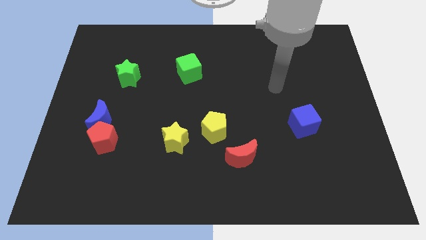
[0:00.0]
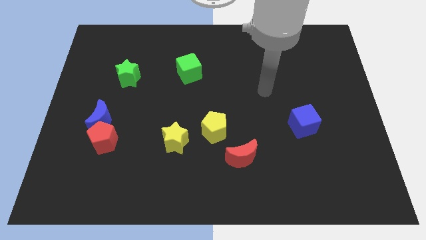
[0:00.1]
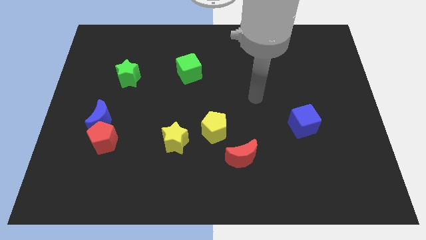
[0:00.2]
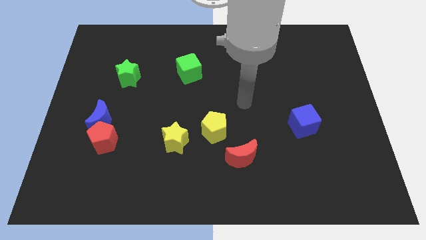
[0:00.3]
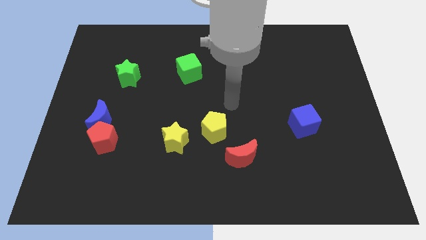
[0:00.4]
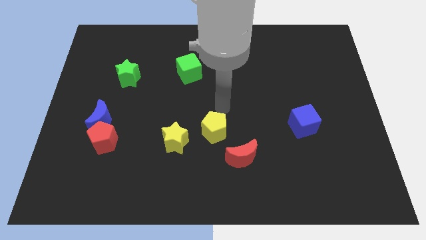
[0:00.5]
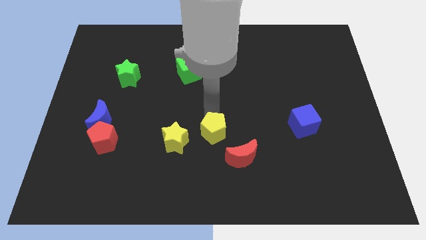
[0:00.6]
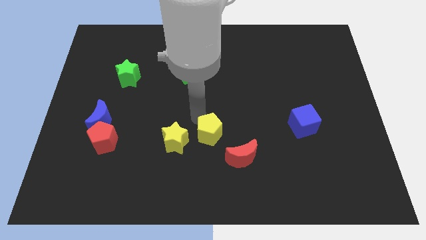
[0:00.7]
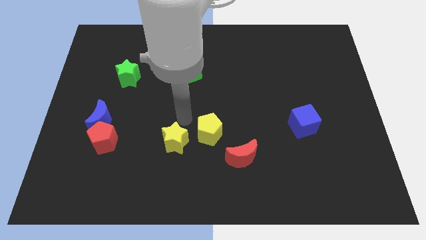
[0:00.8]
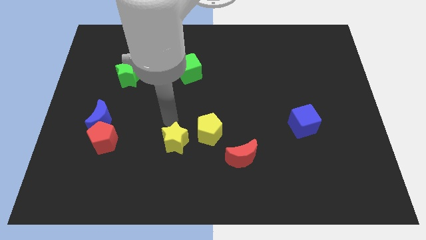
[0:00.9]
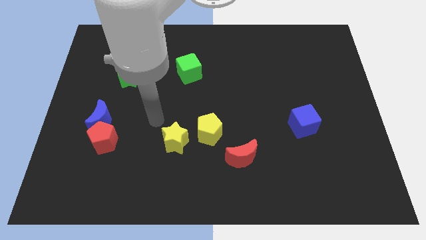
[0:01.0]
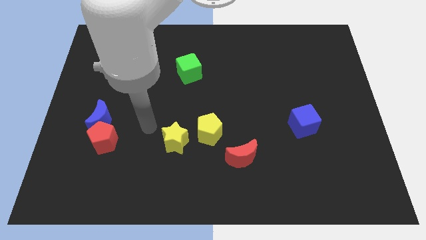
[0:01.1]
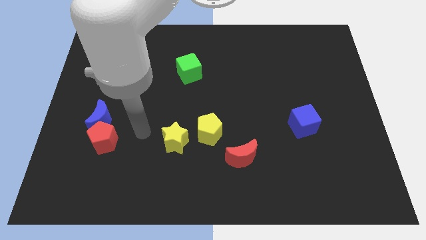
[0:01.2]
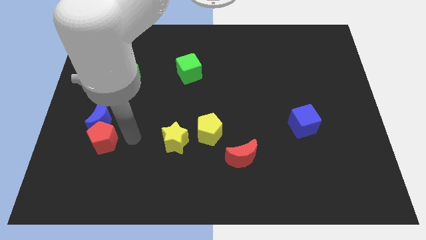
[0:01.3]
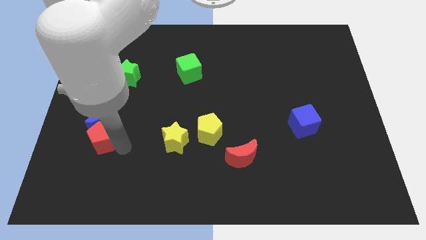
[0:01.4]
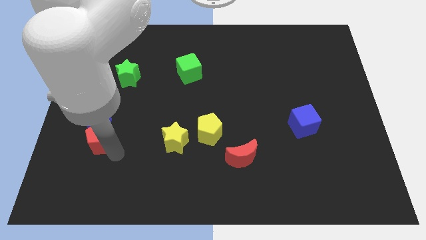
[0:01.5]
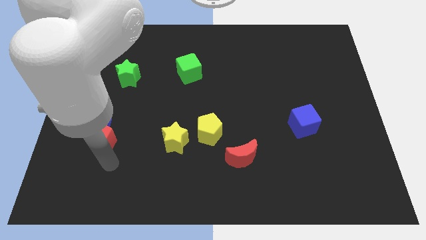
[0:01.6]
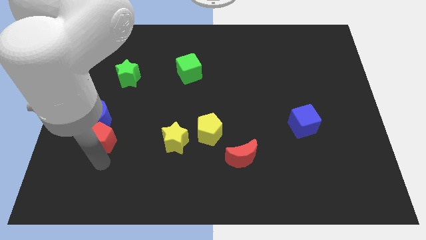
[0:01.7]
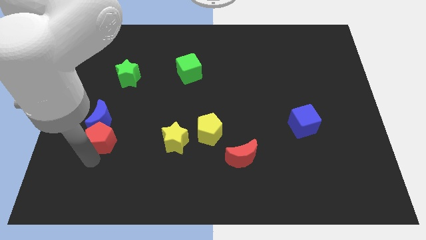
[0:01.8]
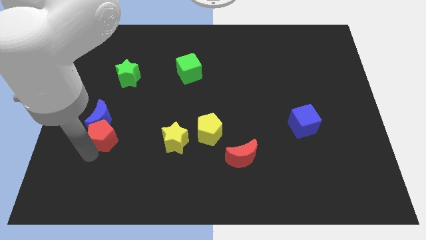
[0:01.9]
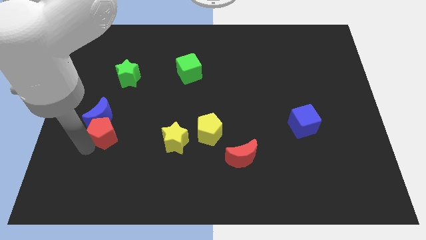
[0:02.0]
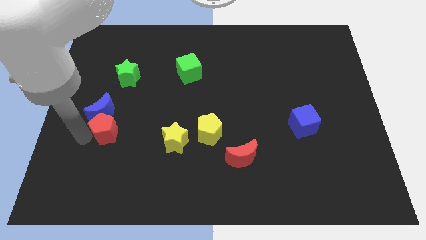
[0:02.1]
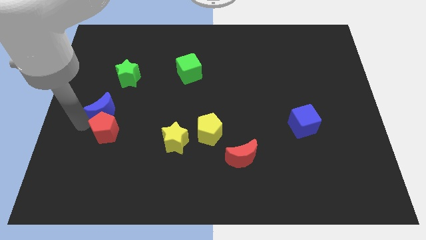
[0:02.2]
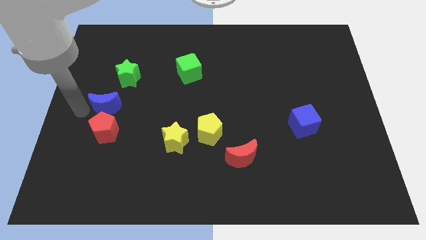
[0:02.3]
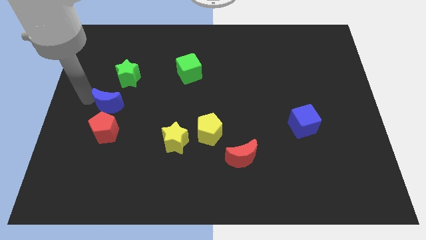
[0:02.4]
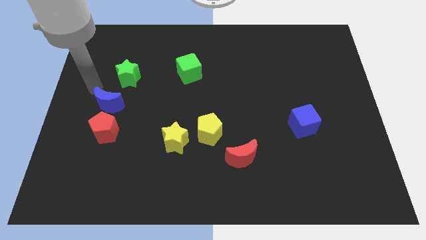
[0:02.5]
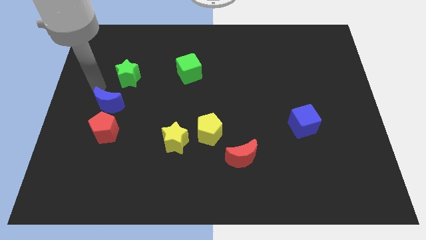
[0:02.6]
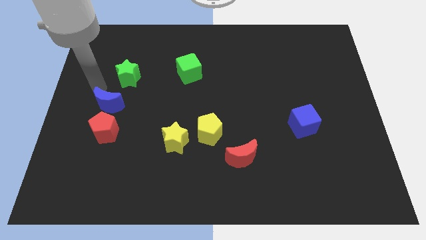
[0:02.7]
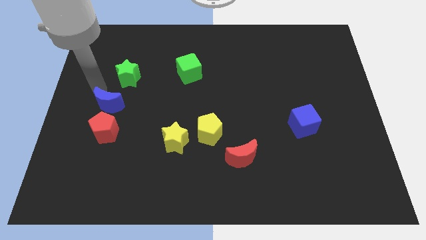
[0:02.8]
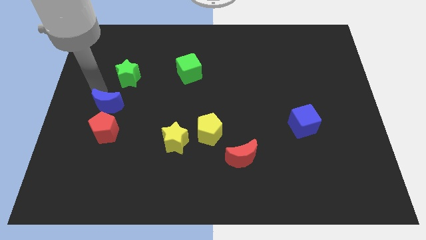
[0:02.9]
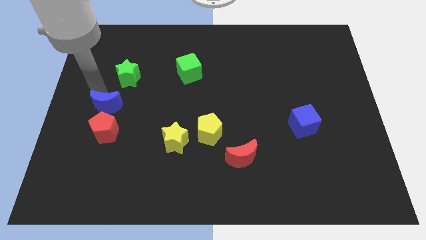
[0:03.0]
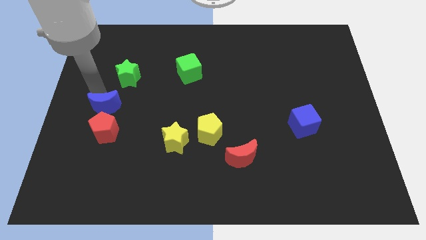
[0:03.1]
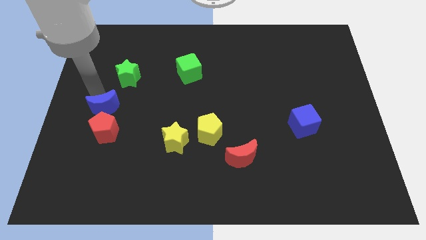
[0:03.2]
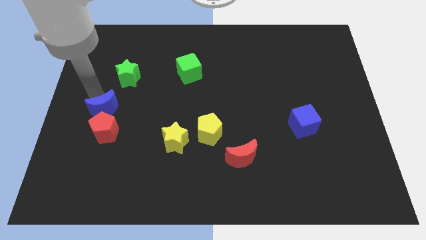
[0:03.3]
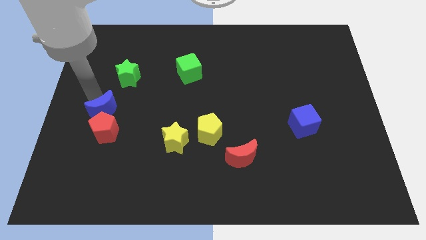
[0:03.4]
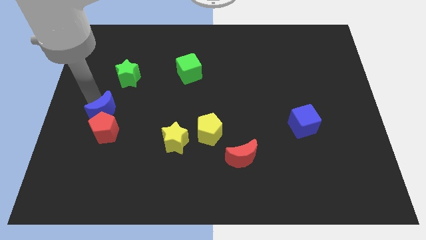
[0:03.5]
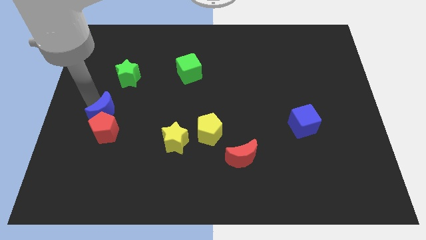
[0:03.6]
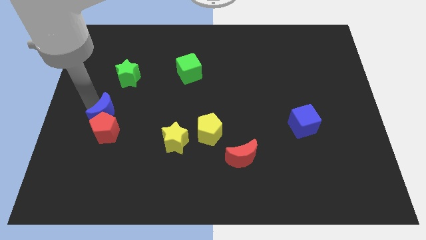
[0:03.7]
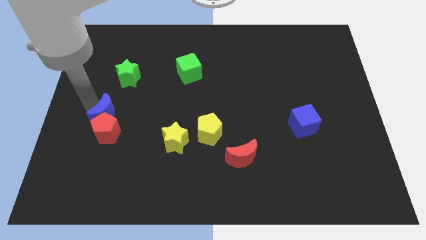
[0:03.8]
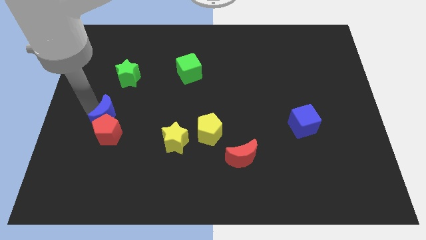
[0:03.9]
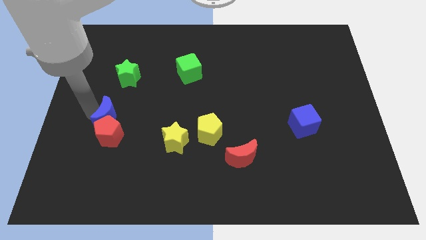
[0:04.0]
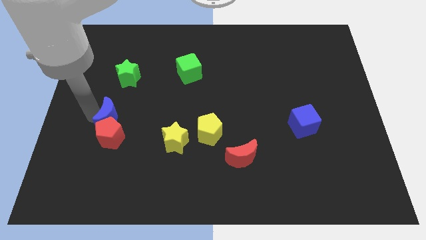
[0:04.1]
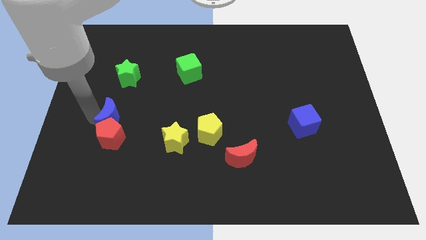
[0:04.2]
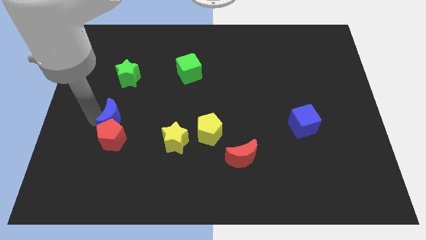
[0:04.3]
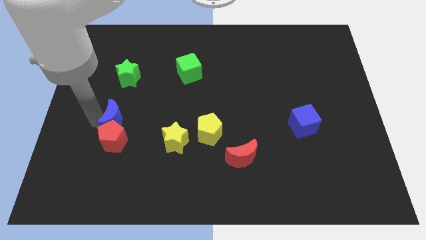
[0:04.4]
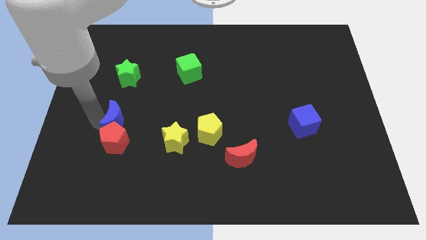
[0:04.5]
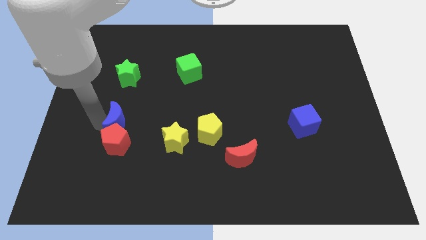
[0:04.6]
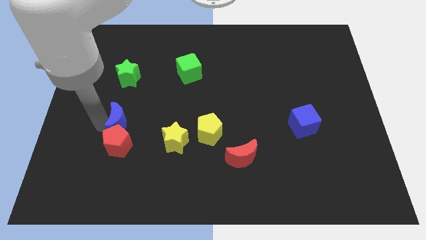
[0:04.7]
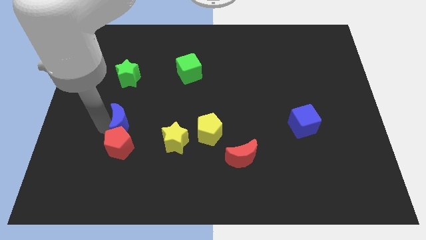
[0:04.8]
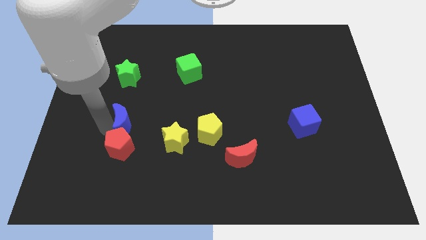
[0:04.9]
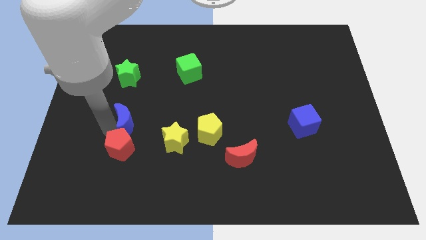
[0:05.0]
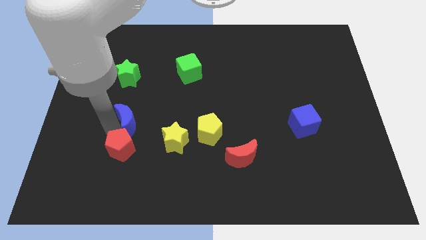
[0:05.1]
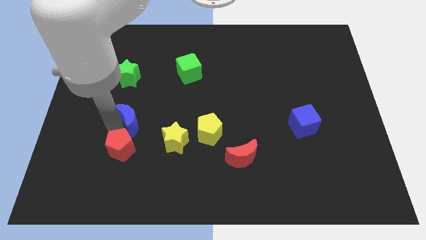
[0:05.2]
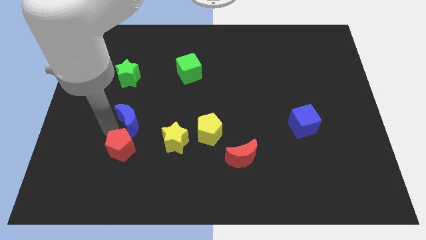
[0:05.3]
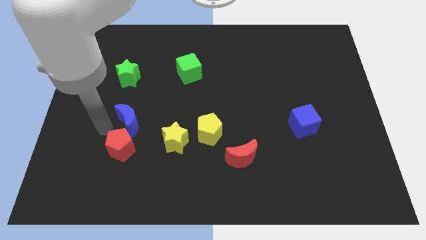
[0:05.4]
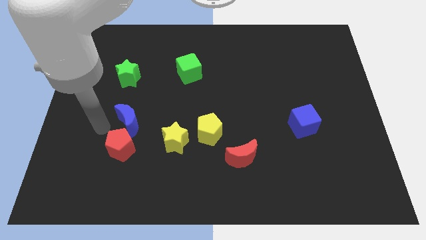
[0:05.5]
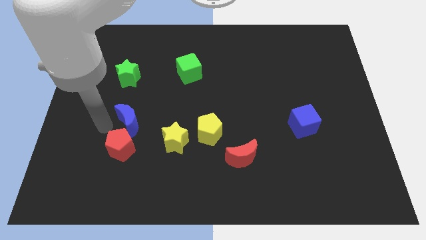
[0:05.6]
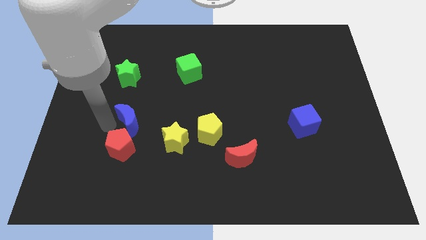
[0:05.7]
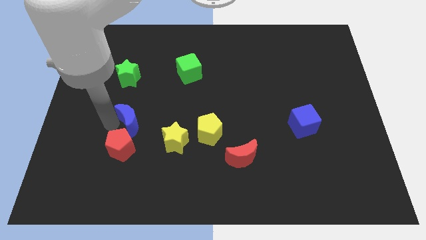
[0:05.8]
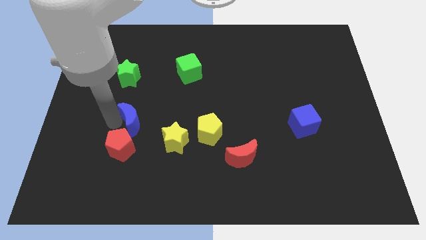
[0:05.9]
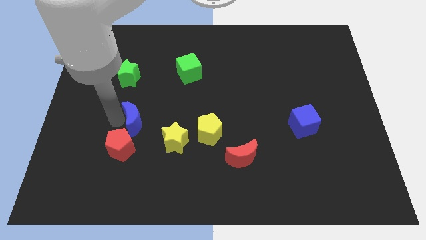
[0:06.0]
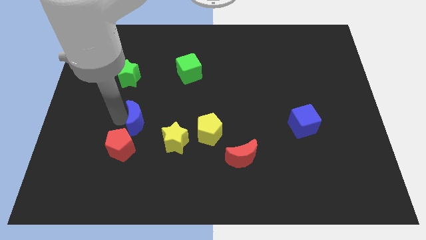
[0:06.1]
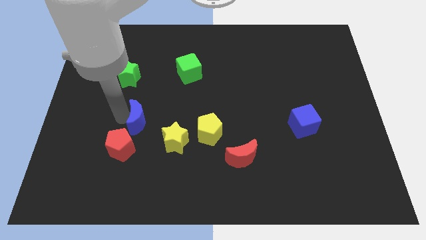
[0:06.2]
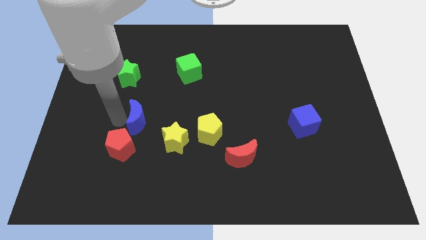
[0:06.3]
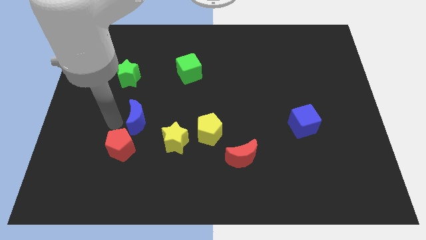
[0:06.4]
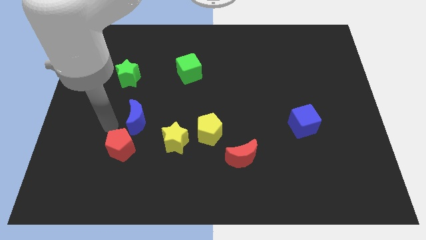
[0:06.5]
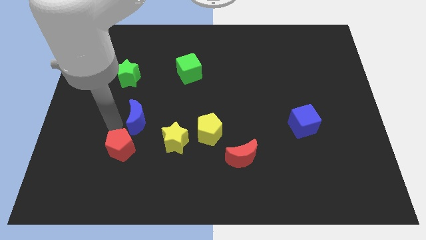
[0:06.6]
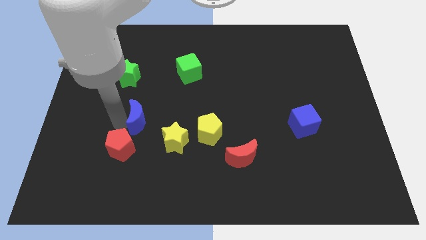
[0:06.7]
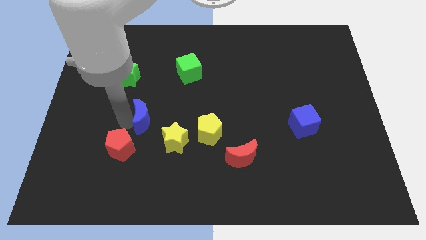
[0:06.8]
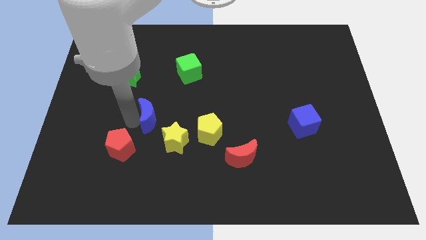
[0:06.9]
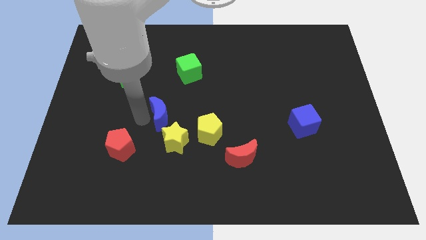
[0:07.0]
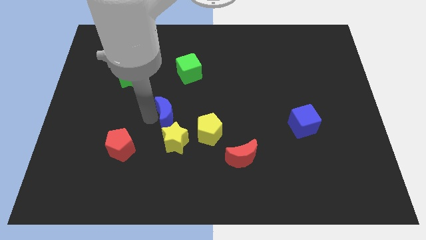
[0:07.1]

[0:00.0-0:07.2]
move the blue moon to the top left side of the yellow pentagon

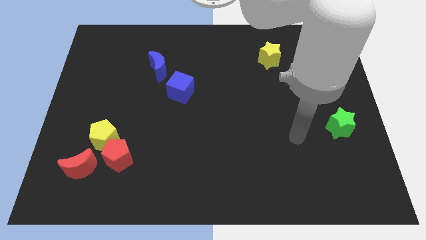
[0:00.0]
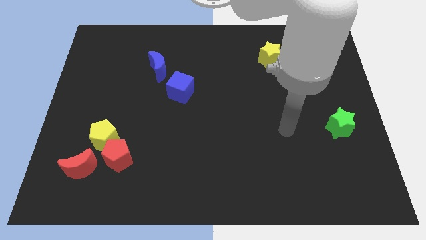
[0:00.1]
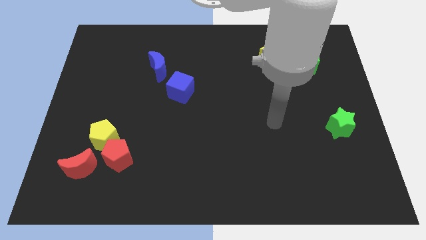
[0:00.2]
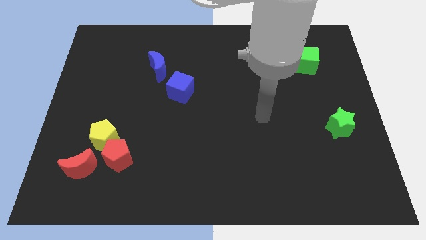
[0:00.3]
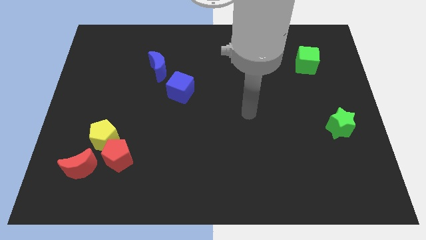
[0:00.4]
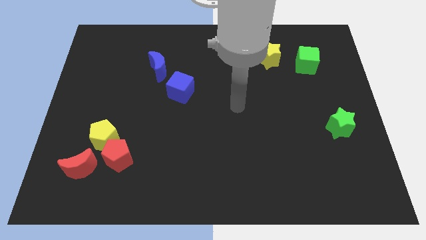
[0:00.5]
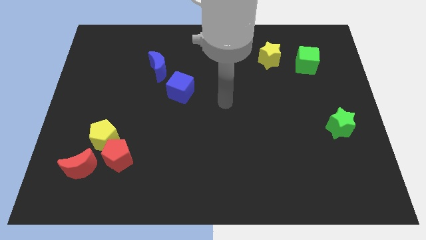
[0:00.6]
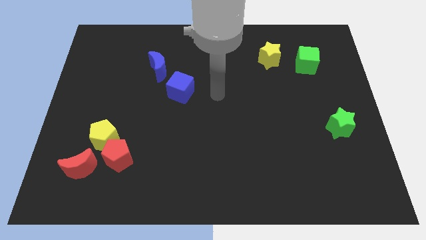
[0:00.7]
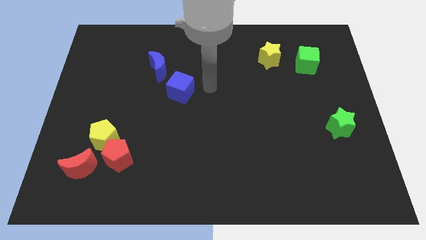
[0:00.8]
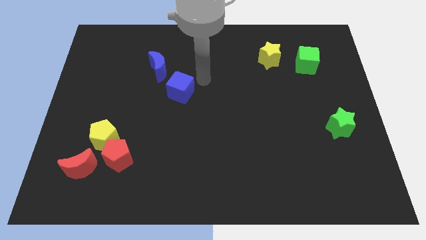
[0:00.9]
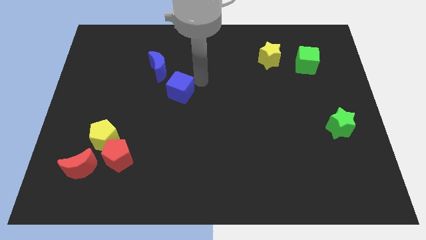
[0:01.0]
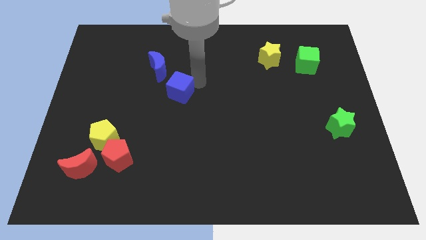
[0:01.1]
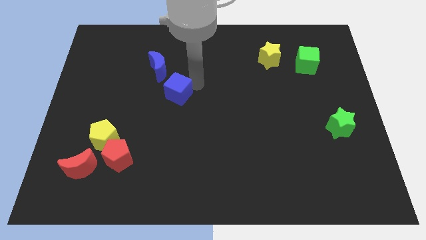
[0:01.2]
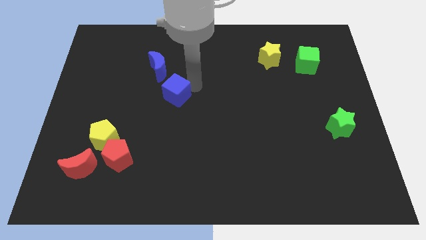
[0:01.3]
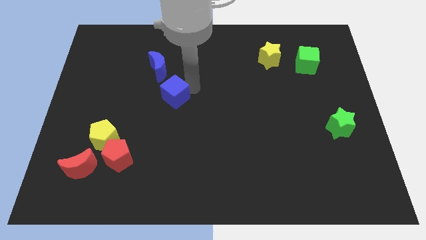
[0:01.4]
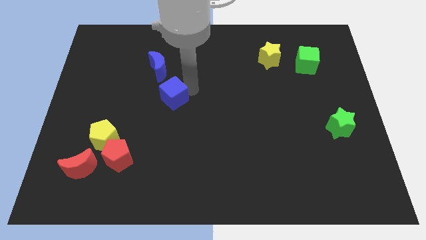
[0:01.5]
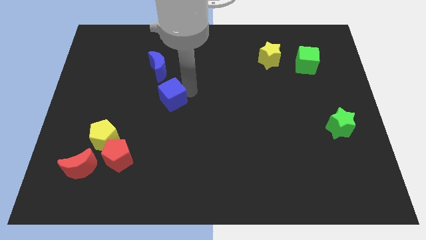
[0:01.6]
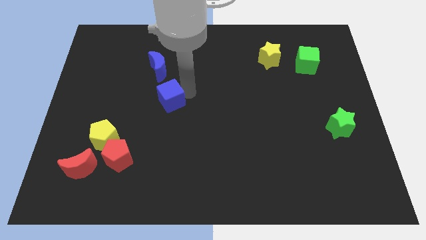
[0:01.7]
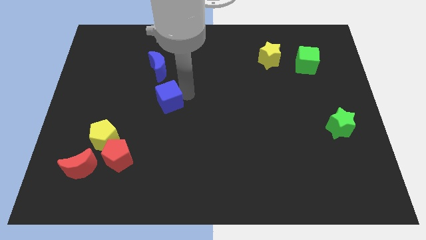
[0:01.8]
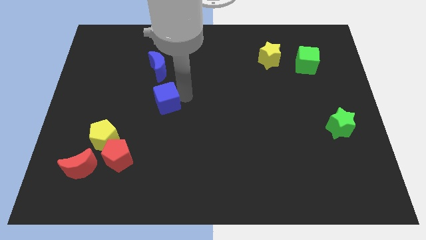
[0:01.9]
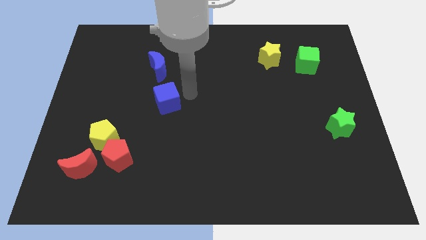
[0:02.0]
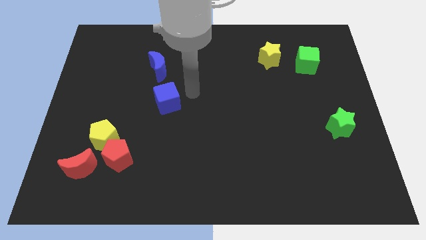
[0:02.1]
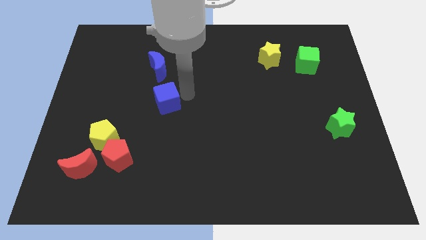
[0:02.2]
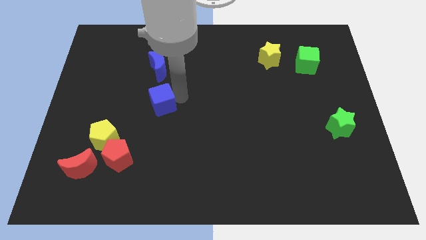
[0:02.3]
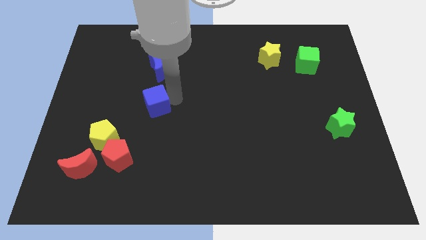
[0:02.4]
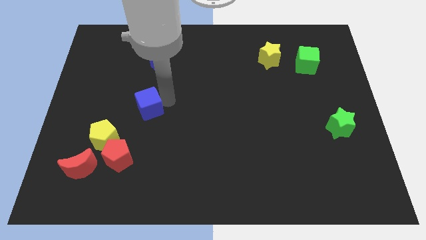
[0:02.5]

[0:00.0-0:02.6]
move the blue cube diagonally up and to the right of the yellow pentagon
